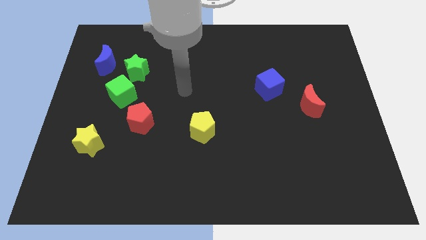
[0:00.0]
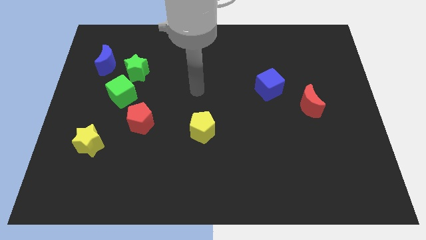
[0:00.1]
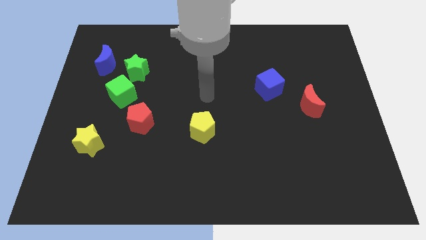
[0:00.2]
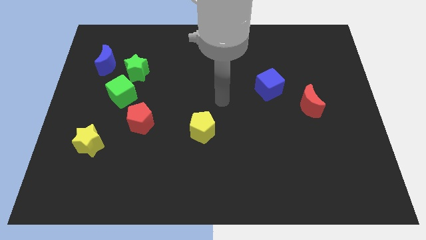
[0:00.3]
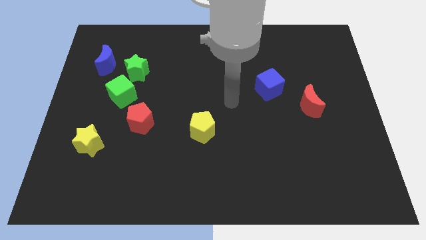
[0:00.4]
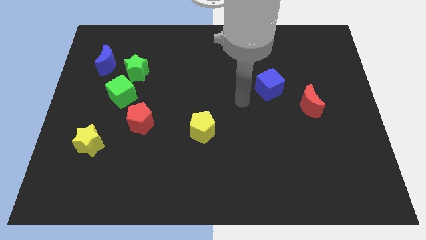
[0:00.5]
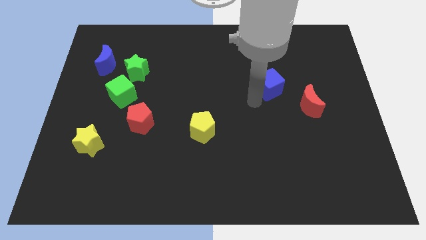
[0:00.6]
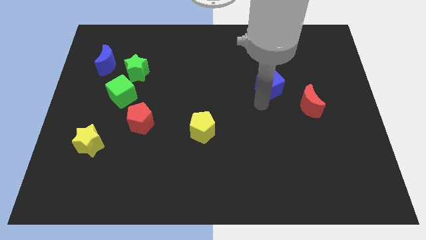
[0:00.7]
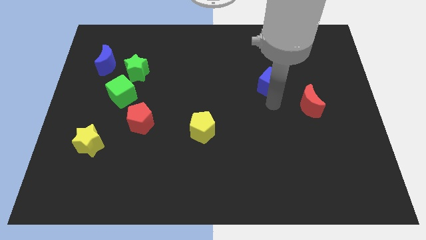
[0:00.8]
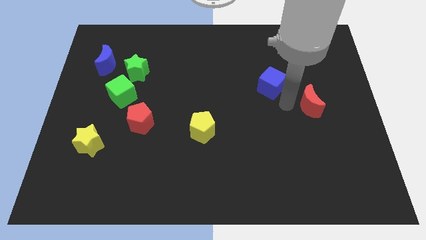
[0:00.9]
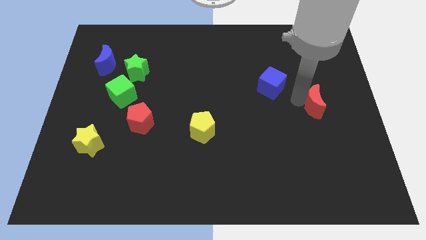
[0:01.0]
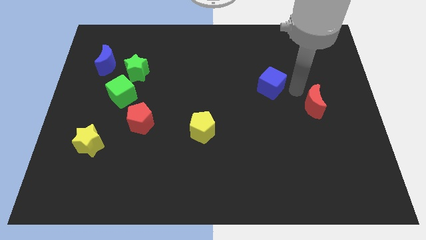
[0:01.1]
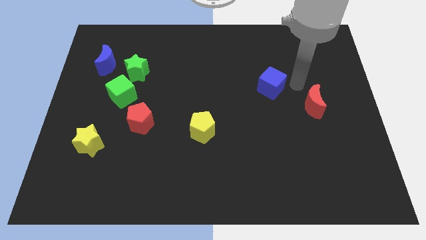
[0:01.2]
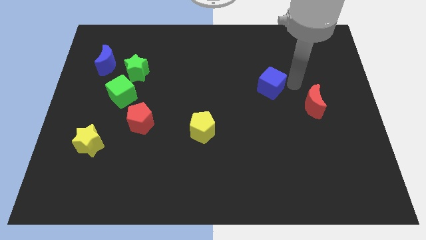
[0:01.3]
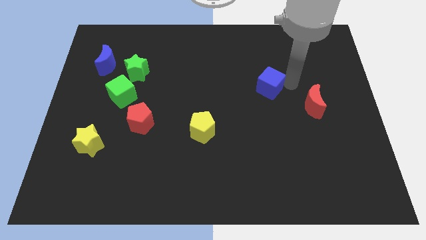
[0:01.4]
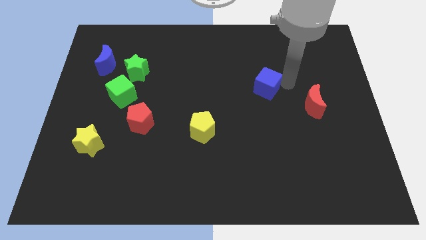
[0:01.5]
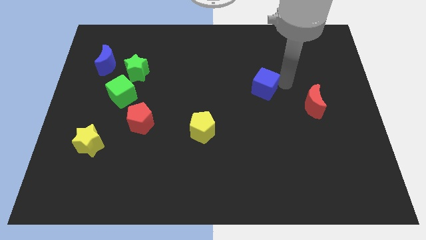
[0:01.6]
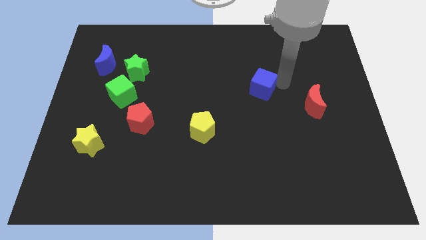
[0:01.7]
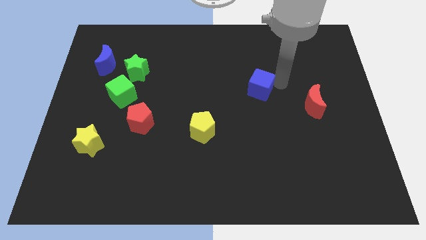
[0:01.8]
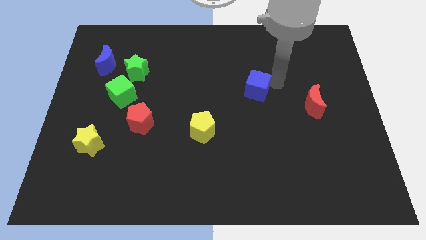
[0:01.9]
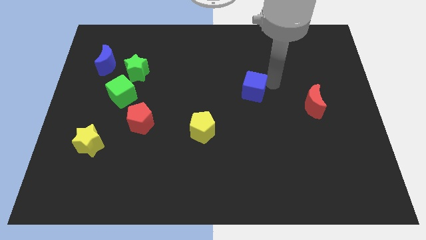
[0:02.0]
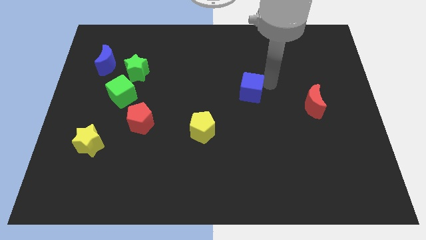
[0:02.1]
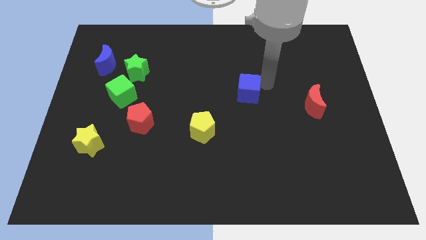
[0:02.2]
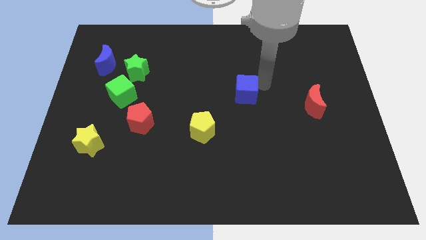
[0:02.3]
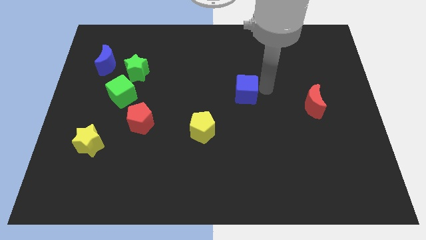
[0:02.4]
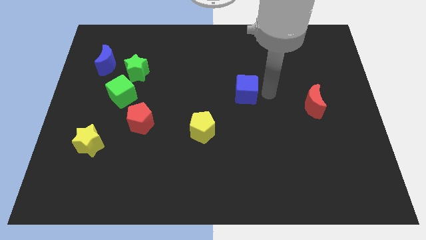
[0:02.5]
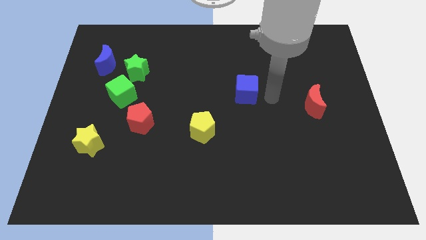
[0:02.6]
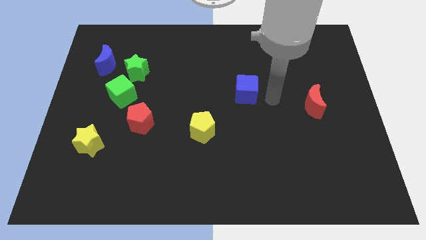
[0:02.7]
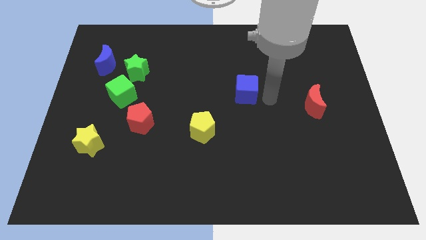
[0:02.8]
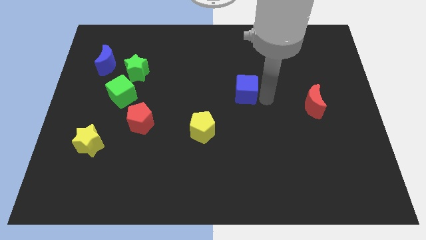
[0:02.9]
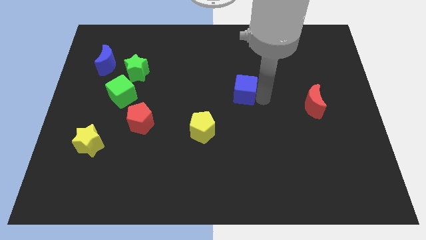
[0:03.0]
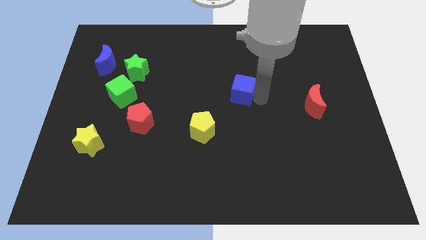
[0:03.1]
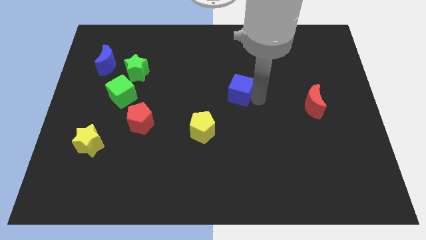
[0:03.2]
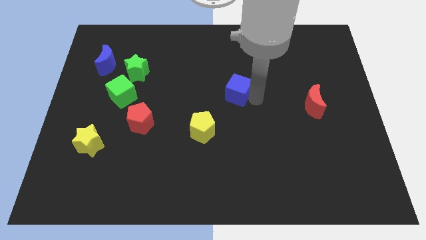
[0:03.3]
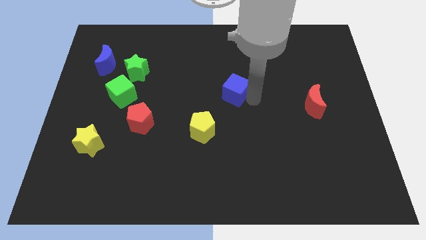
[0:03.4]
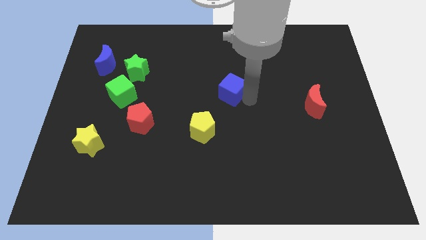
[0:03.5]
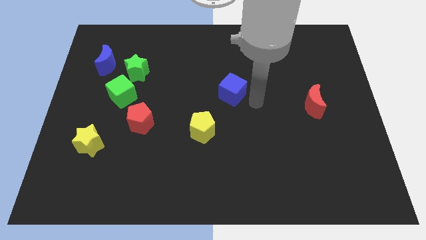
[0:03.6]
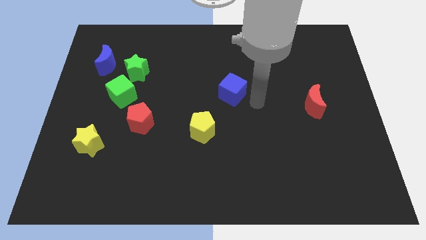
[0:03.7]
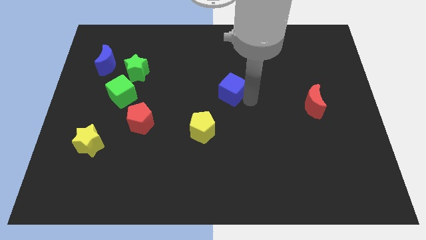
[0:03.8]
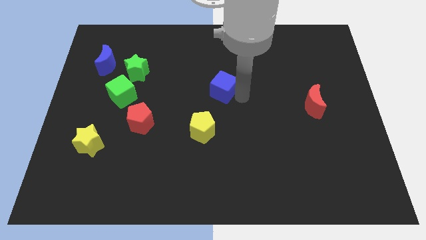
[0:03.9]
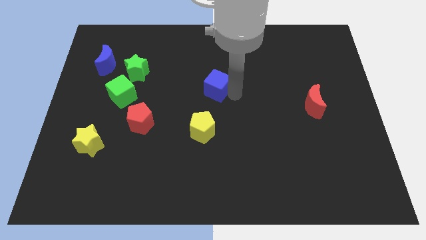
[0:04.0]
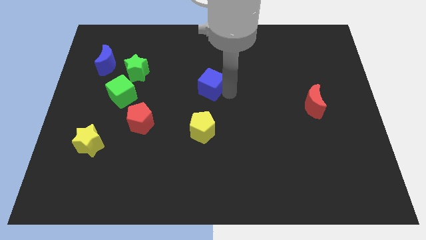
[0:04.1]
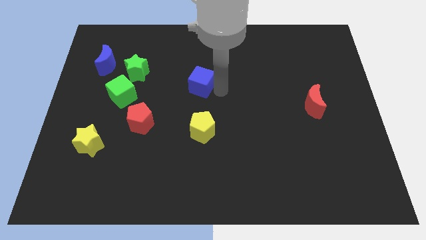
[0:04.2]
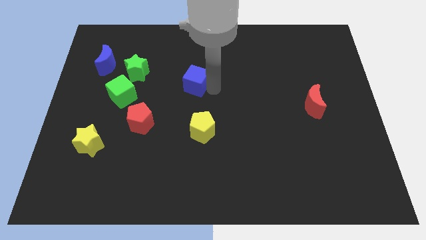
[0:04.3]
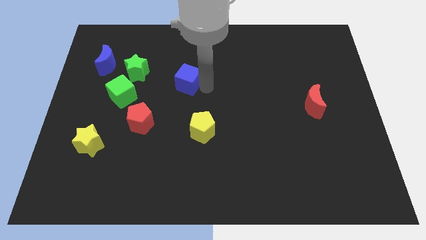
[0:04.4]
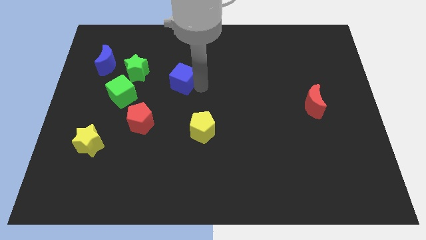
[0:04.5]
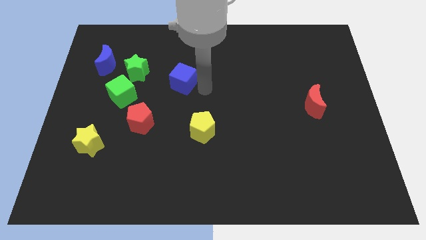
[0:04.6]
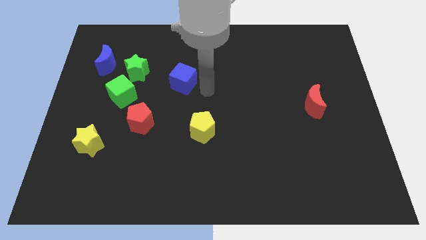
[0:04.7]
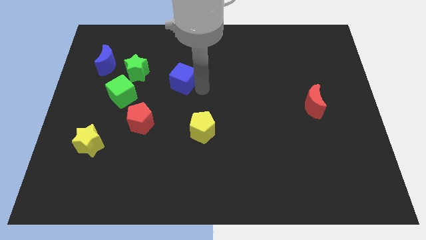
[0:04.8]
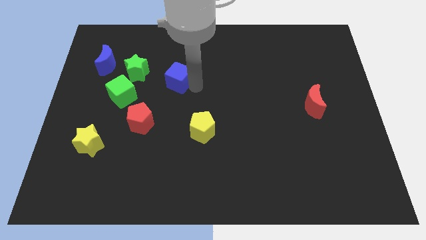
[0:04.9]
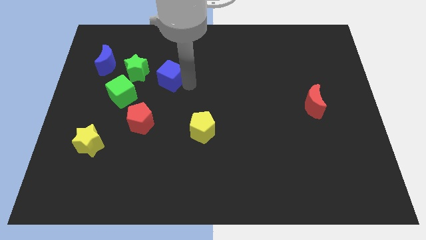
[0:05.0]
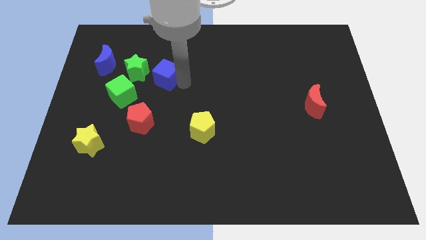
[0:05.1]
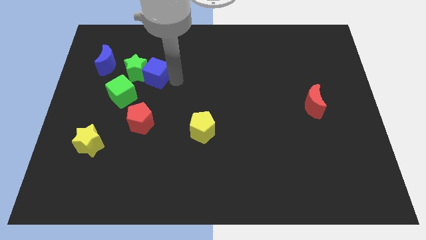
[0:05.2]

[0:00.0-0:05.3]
slide the blue cube next to the green star

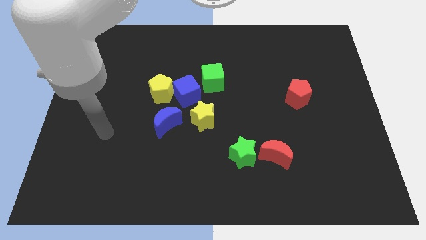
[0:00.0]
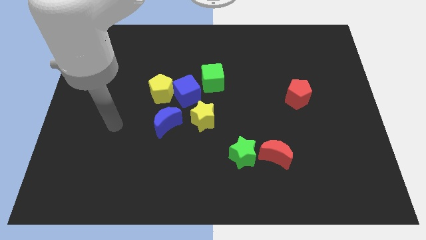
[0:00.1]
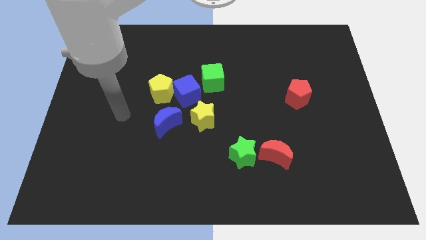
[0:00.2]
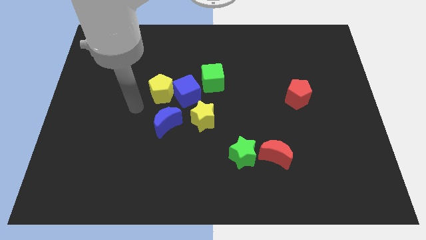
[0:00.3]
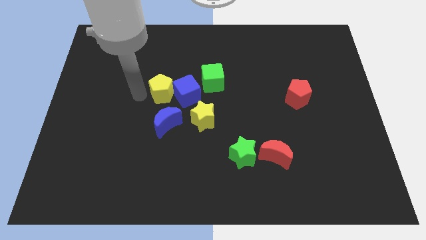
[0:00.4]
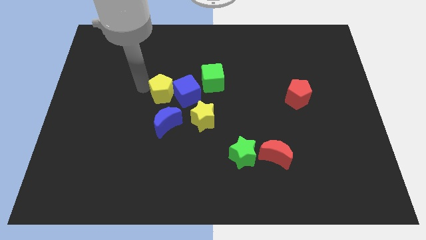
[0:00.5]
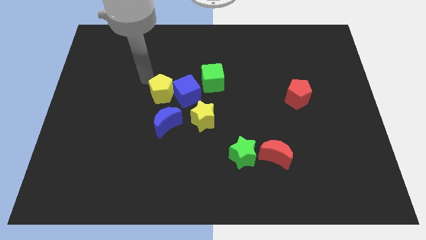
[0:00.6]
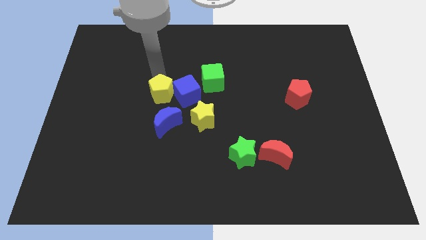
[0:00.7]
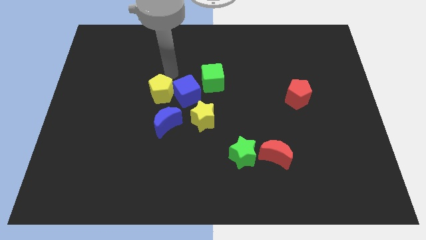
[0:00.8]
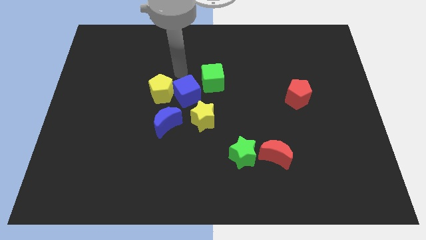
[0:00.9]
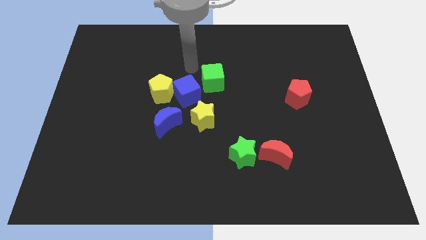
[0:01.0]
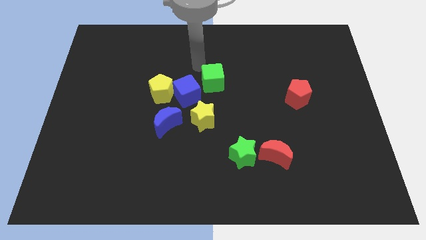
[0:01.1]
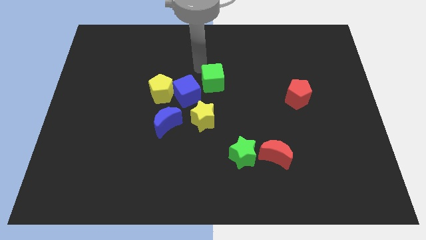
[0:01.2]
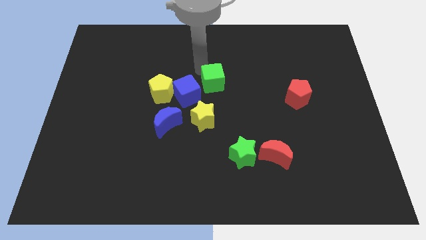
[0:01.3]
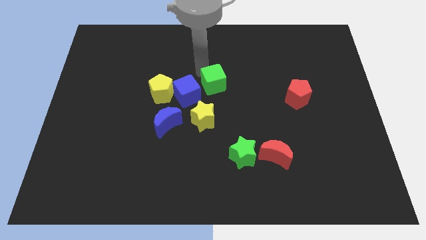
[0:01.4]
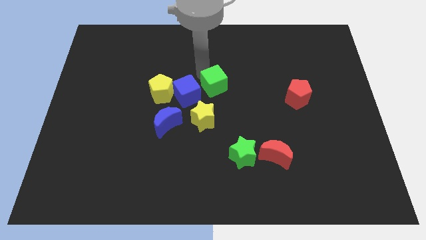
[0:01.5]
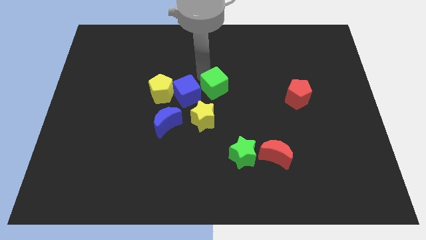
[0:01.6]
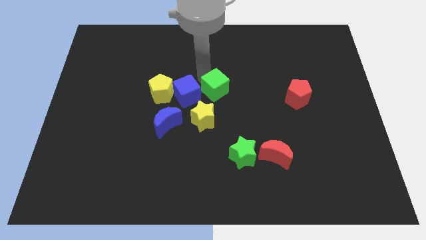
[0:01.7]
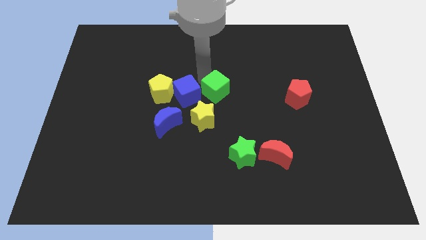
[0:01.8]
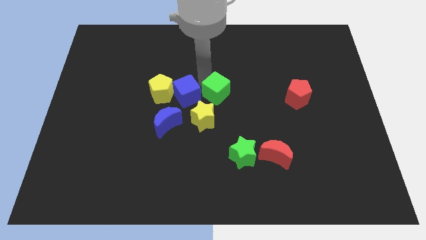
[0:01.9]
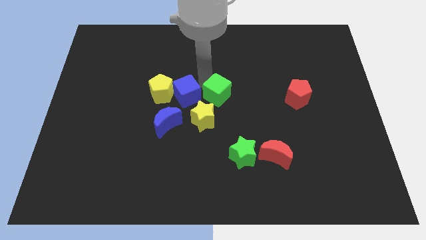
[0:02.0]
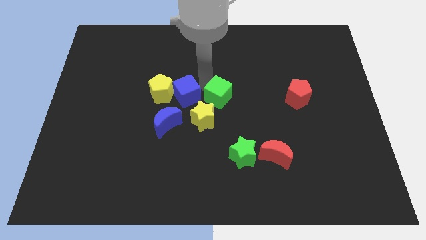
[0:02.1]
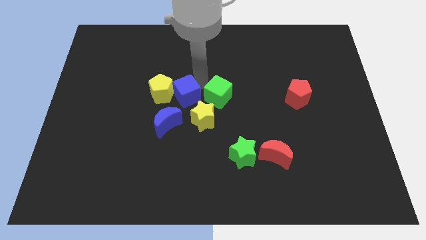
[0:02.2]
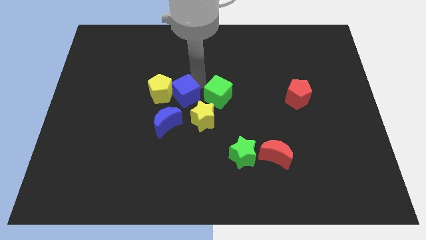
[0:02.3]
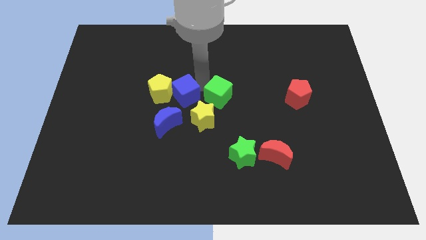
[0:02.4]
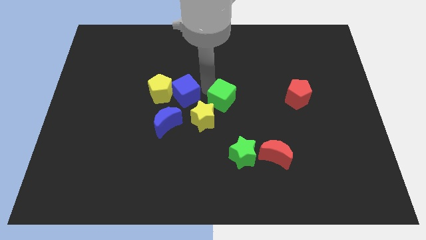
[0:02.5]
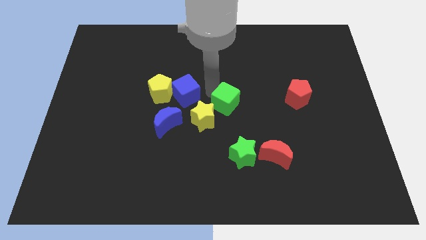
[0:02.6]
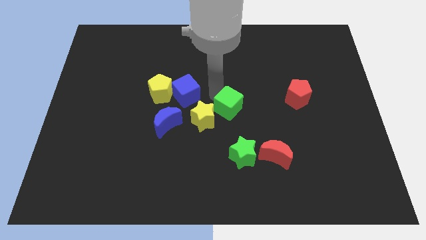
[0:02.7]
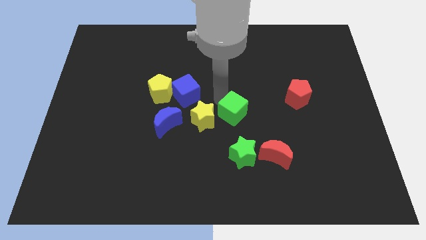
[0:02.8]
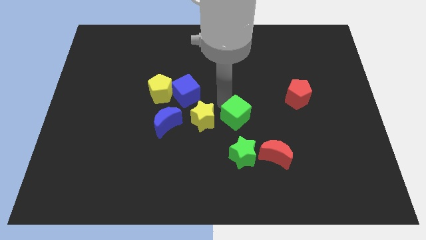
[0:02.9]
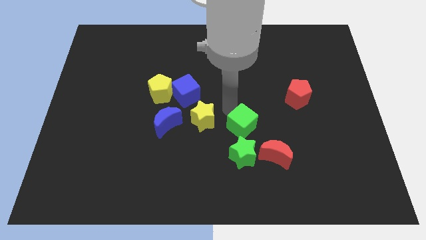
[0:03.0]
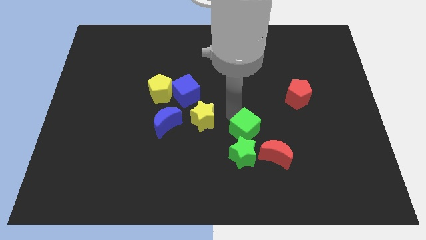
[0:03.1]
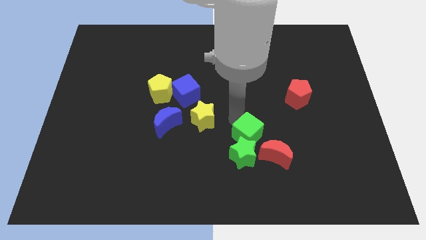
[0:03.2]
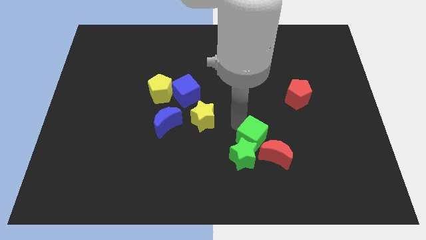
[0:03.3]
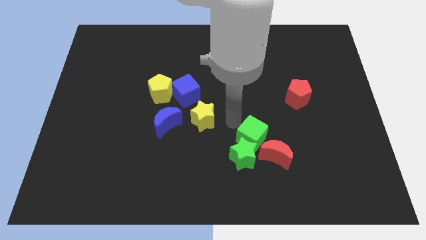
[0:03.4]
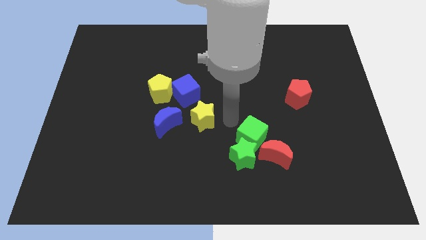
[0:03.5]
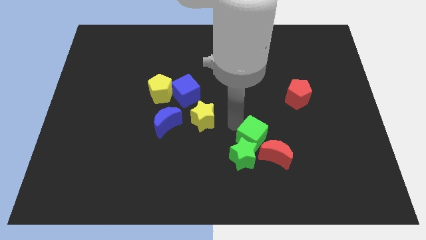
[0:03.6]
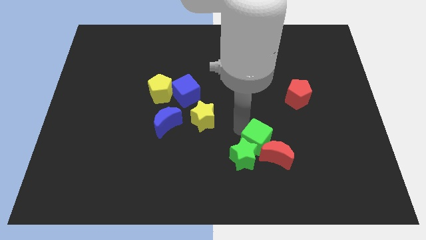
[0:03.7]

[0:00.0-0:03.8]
slide the green cube close to the red moon
